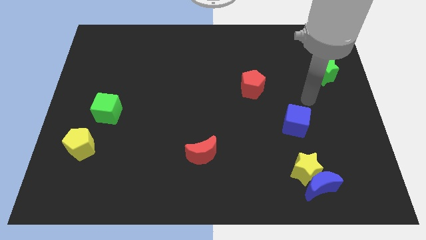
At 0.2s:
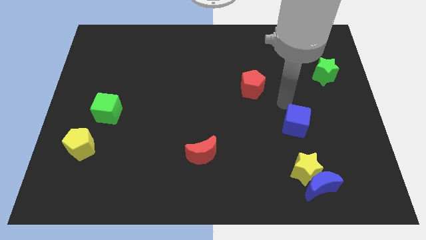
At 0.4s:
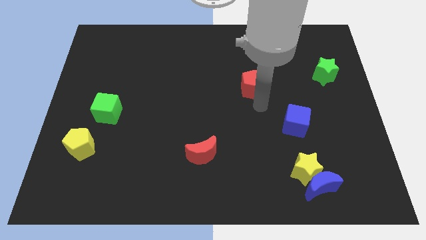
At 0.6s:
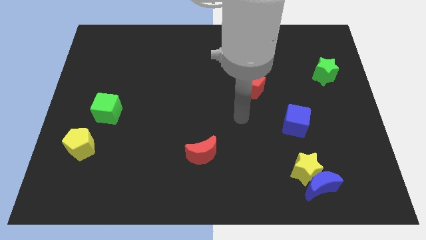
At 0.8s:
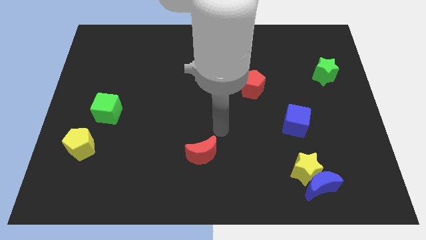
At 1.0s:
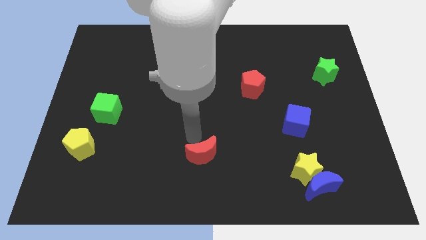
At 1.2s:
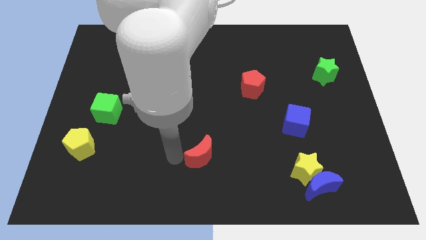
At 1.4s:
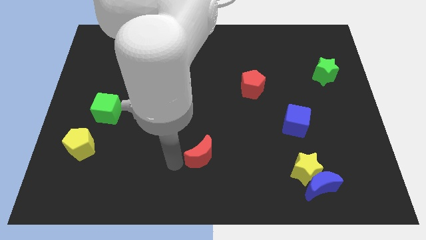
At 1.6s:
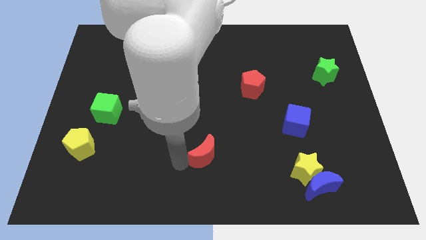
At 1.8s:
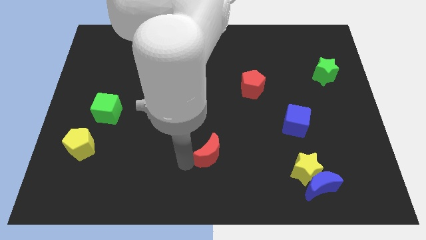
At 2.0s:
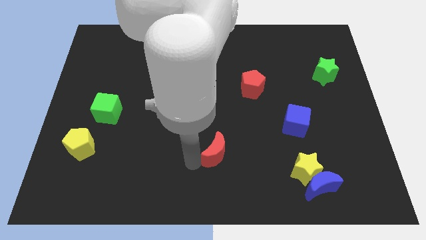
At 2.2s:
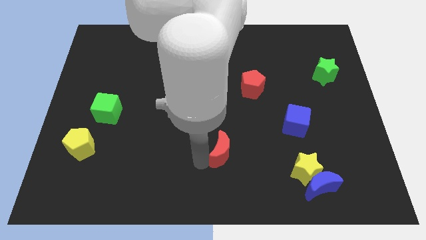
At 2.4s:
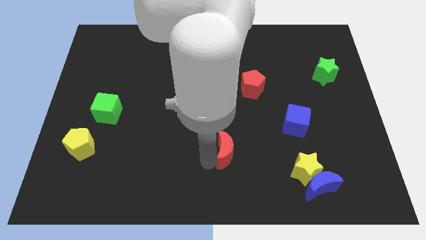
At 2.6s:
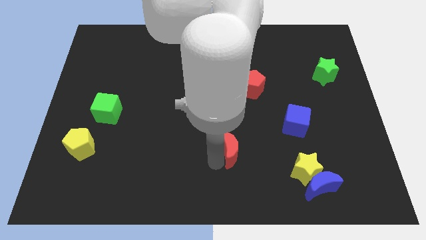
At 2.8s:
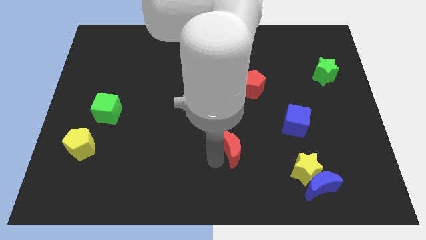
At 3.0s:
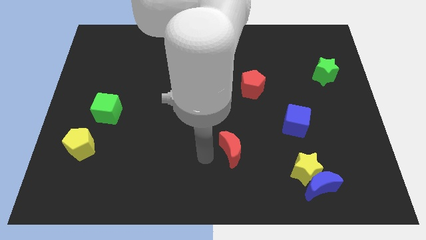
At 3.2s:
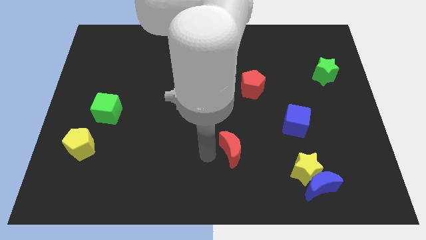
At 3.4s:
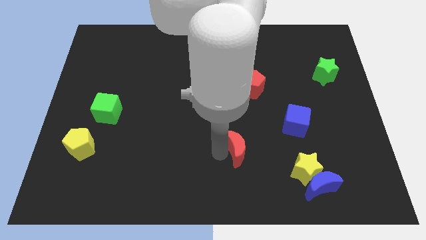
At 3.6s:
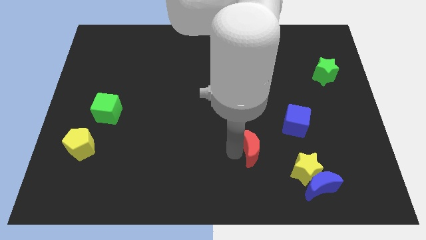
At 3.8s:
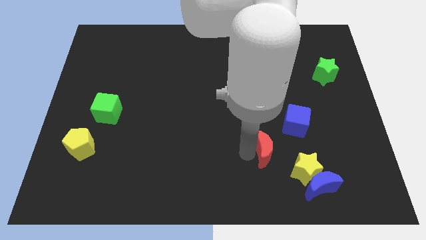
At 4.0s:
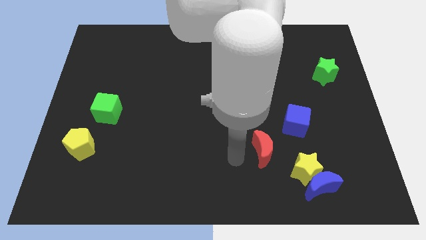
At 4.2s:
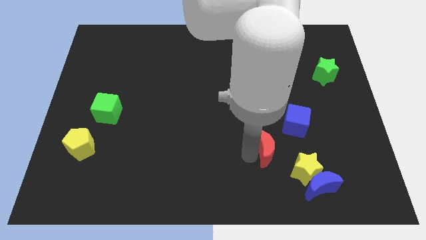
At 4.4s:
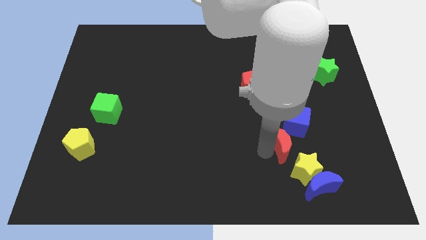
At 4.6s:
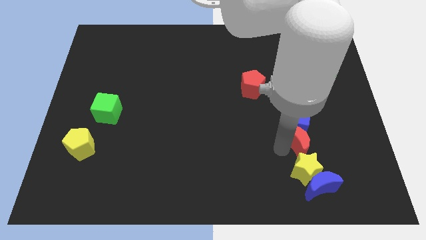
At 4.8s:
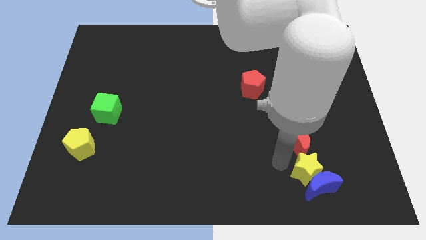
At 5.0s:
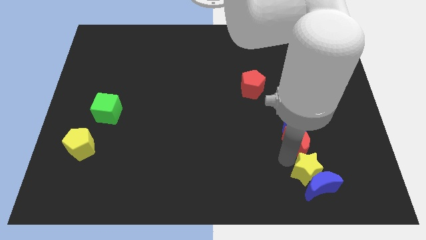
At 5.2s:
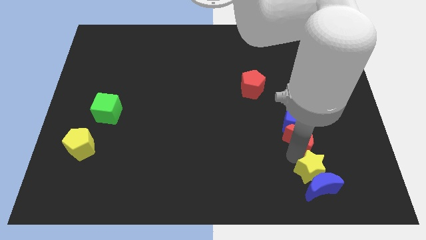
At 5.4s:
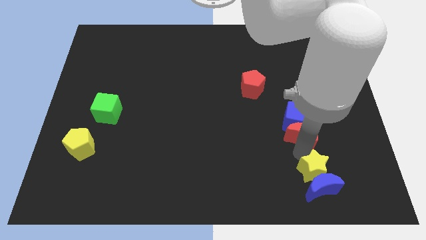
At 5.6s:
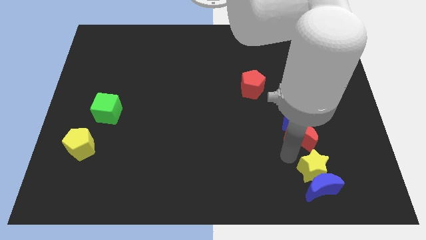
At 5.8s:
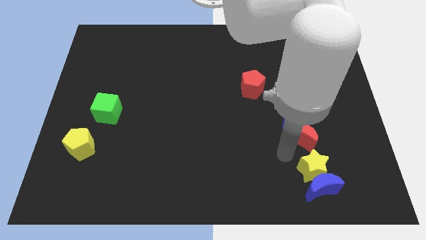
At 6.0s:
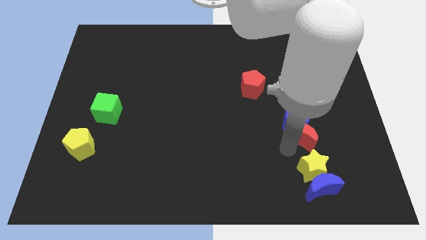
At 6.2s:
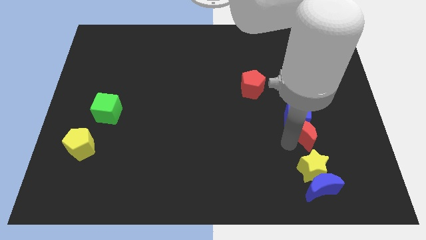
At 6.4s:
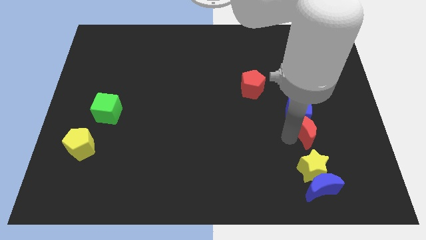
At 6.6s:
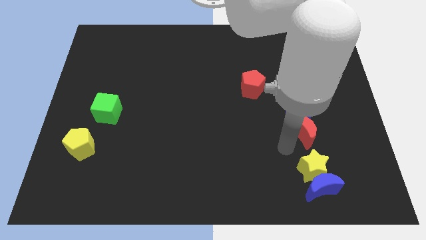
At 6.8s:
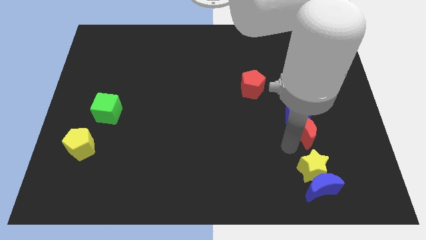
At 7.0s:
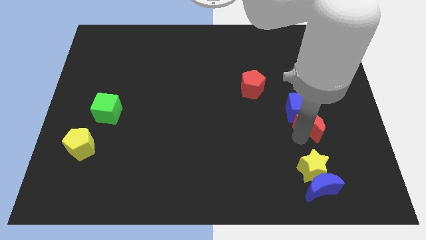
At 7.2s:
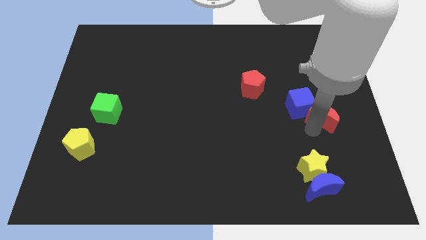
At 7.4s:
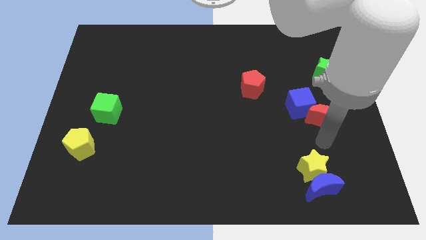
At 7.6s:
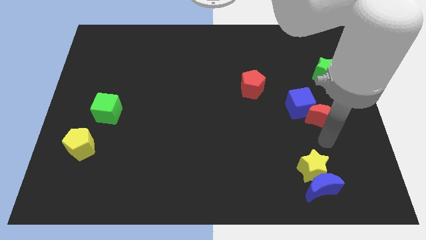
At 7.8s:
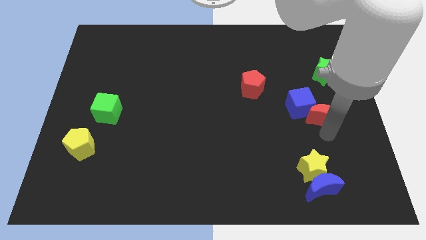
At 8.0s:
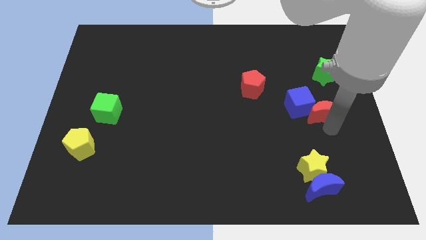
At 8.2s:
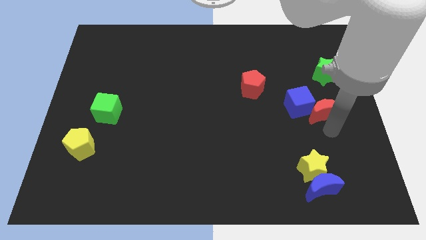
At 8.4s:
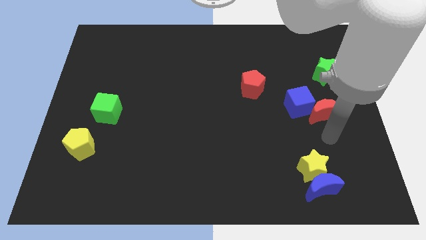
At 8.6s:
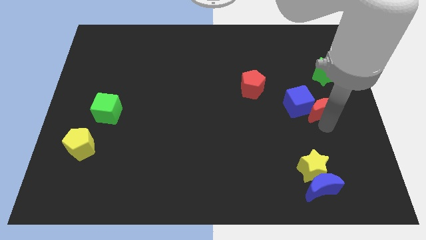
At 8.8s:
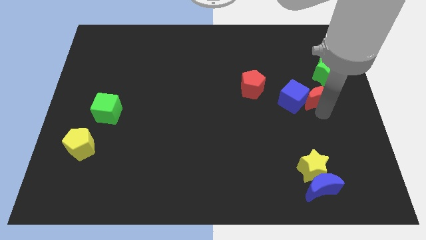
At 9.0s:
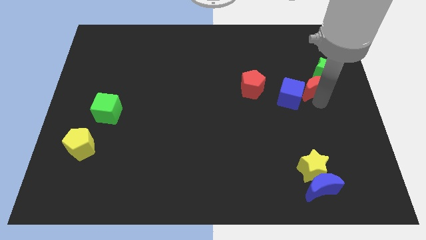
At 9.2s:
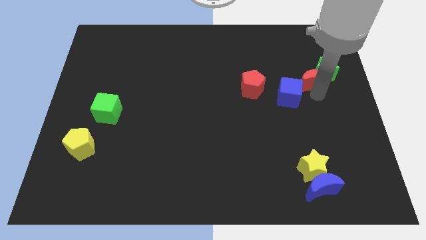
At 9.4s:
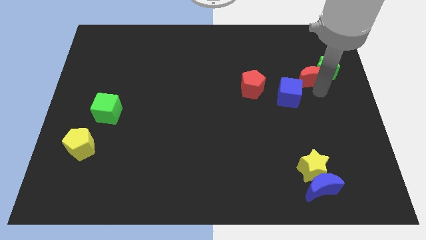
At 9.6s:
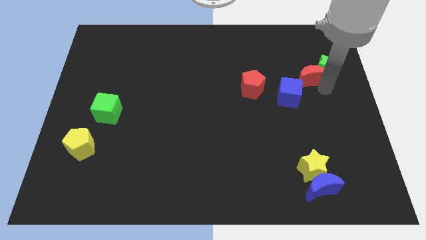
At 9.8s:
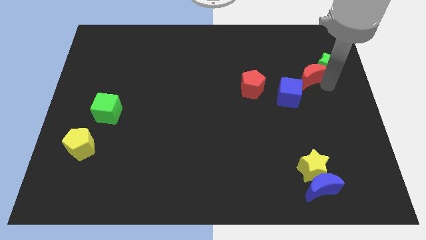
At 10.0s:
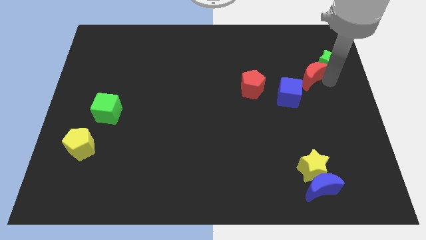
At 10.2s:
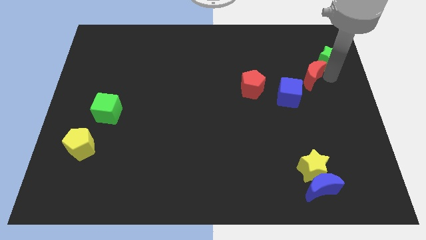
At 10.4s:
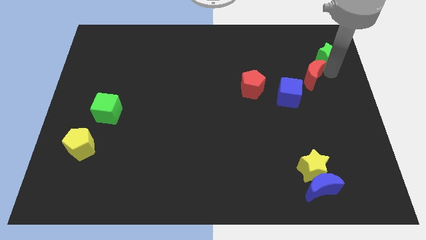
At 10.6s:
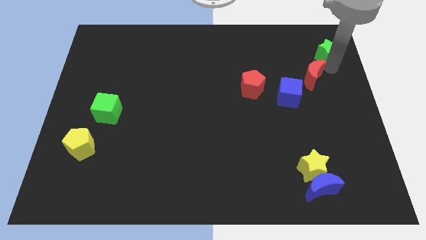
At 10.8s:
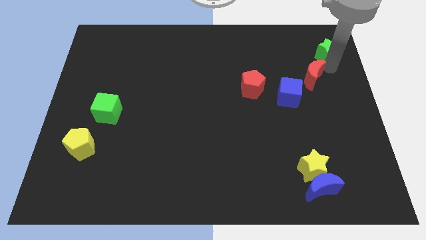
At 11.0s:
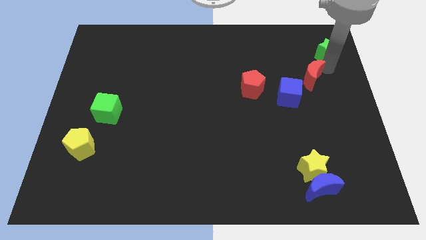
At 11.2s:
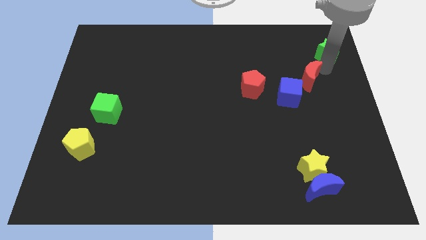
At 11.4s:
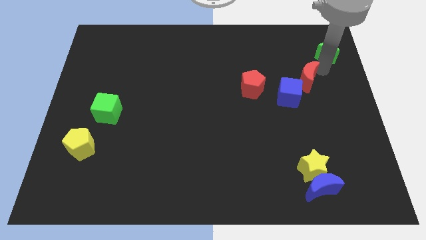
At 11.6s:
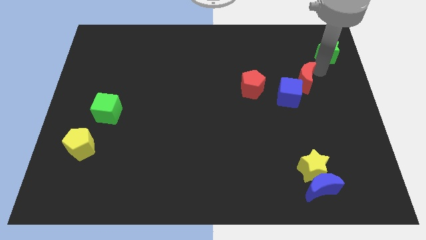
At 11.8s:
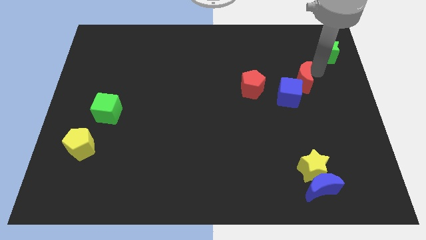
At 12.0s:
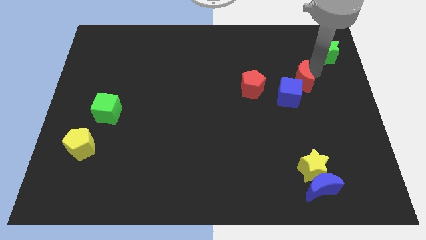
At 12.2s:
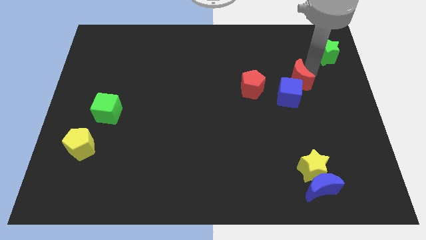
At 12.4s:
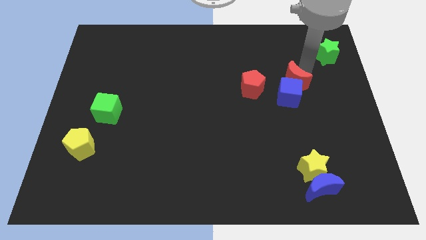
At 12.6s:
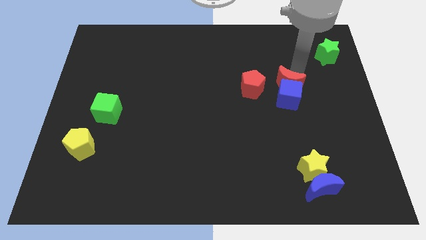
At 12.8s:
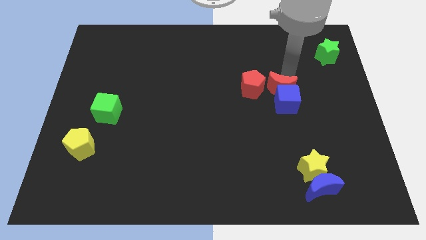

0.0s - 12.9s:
put the red moon diagonally up and to the right of the blue cube
